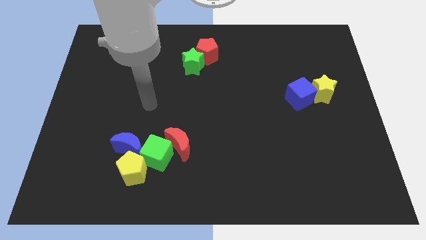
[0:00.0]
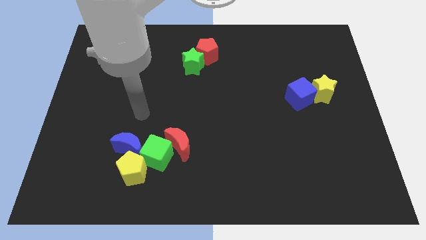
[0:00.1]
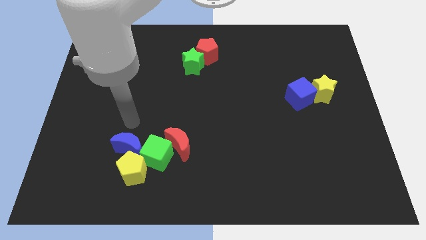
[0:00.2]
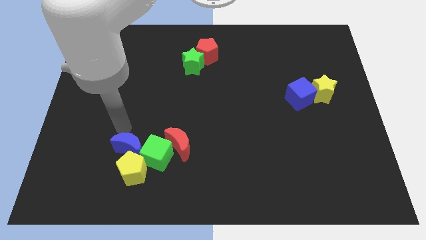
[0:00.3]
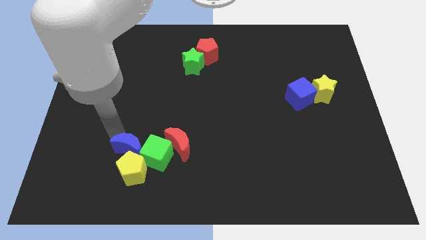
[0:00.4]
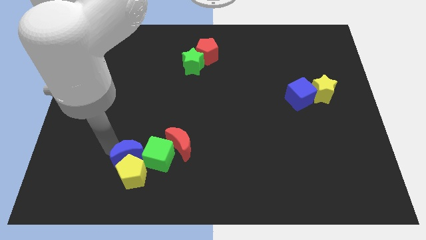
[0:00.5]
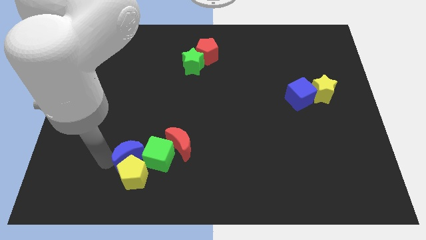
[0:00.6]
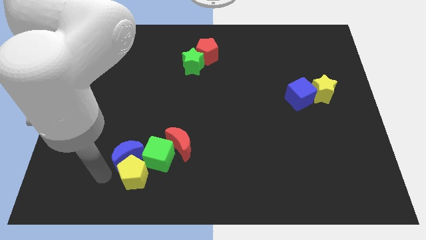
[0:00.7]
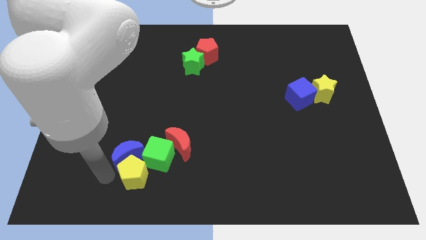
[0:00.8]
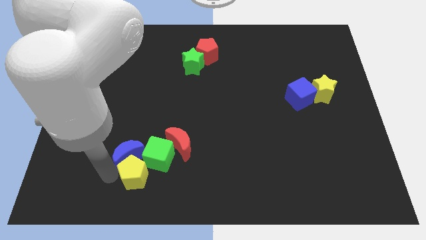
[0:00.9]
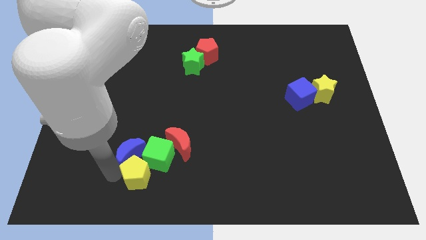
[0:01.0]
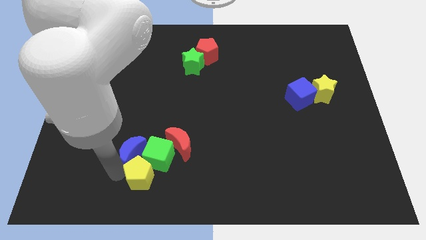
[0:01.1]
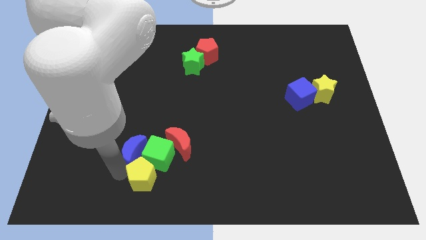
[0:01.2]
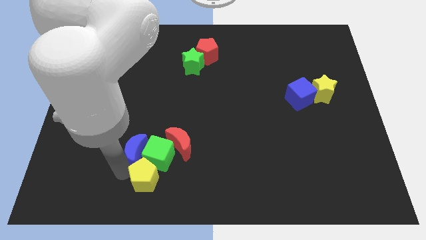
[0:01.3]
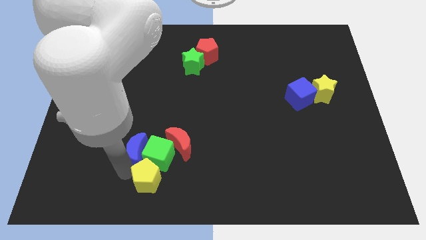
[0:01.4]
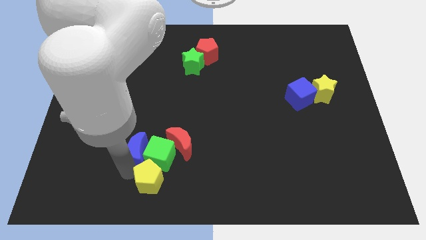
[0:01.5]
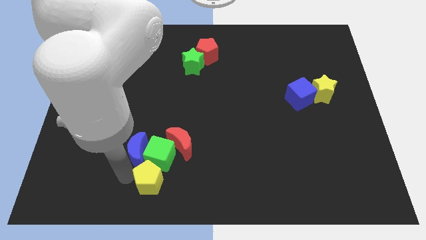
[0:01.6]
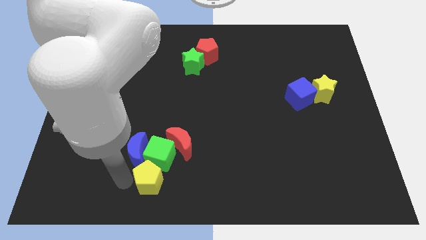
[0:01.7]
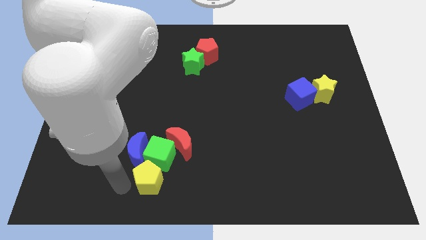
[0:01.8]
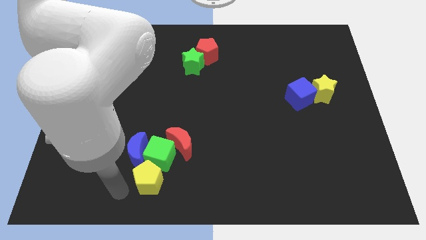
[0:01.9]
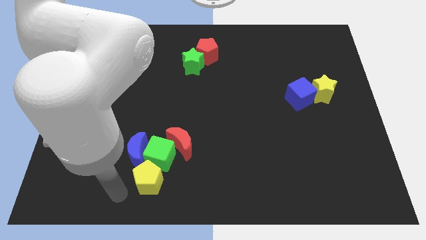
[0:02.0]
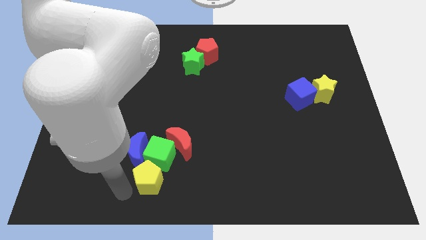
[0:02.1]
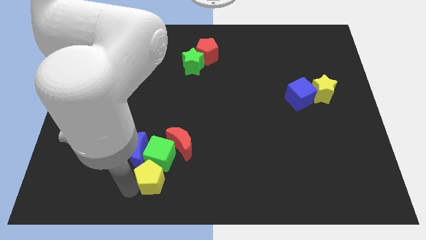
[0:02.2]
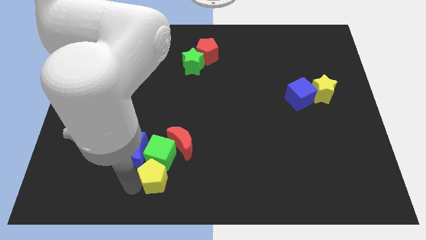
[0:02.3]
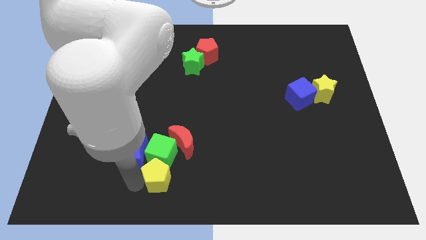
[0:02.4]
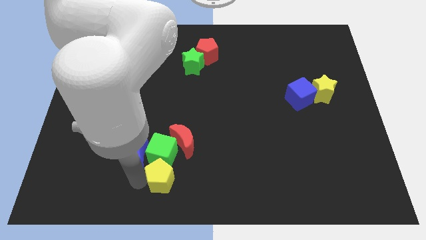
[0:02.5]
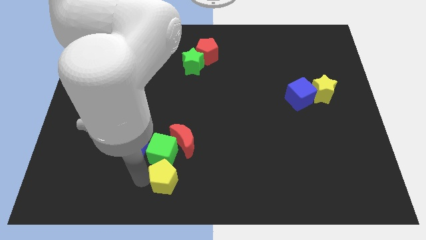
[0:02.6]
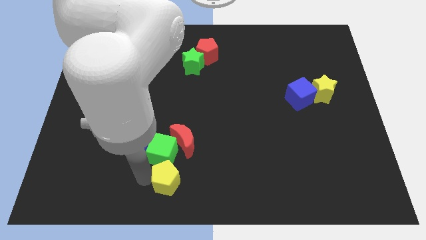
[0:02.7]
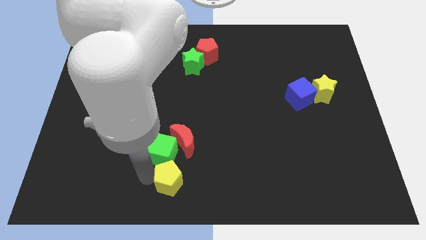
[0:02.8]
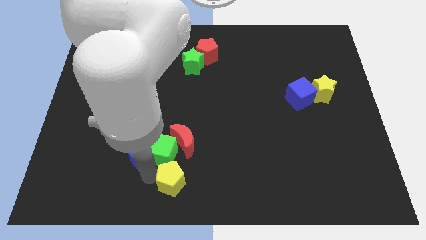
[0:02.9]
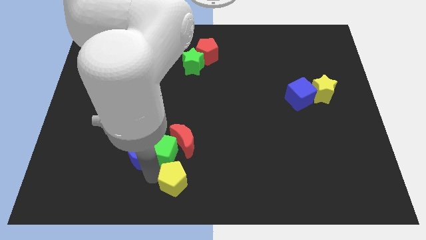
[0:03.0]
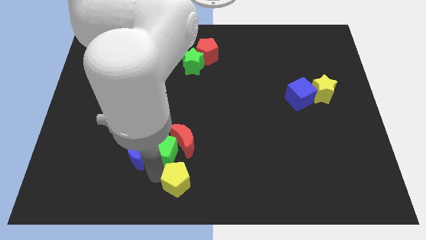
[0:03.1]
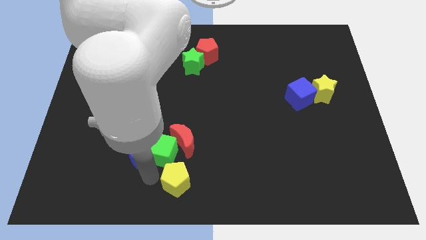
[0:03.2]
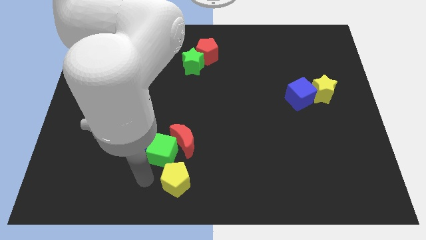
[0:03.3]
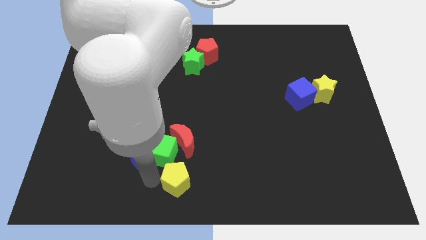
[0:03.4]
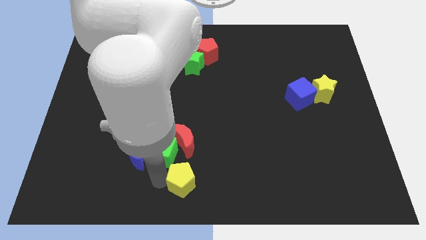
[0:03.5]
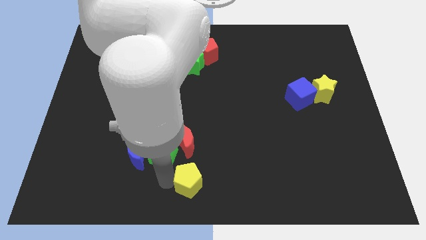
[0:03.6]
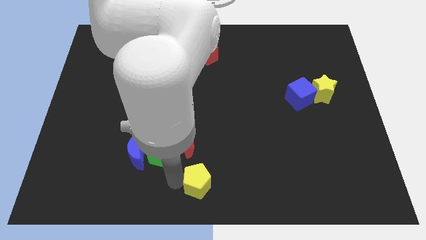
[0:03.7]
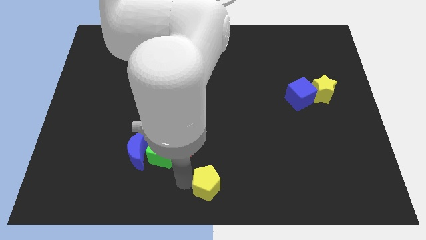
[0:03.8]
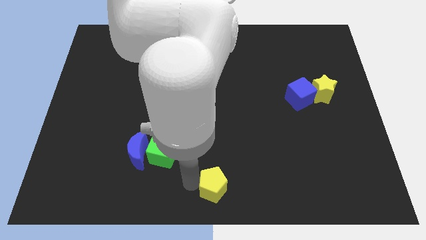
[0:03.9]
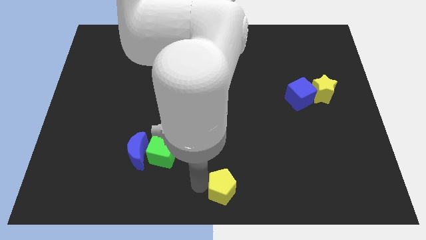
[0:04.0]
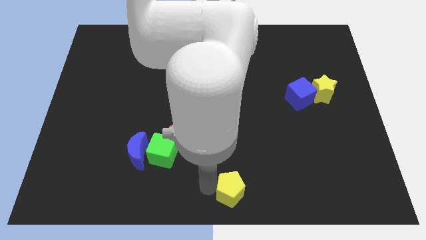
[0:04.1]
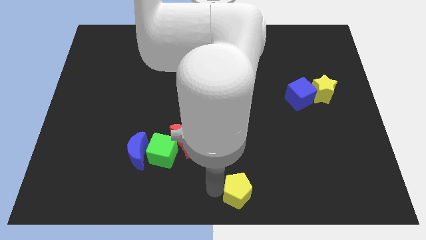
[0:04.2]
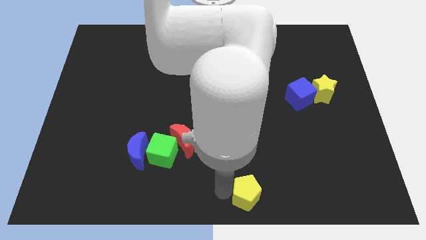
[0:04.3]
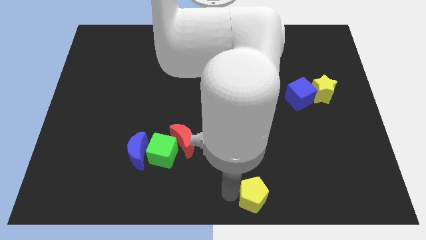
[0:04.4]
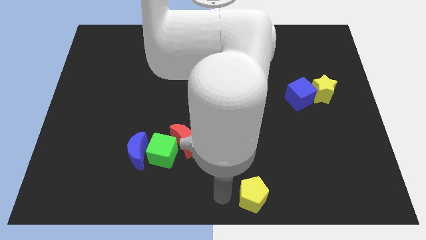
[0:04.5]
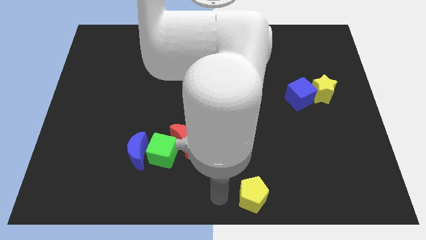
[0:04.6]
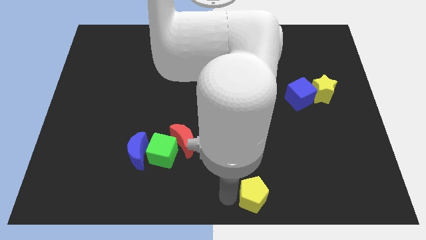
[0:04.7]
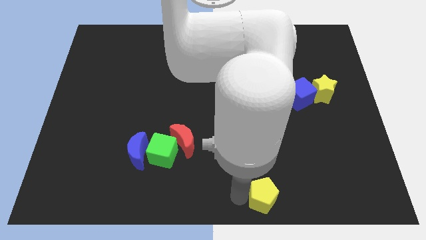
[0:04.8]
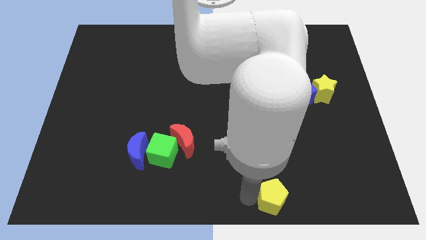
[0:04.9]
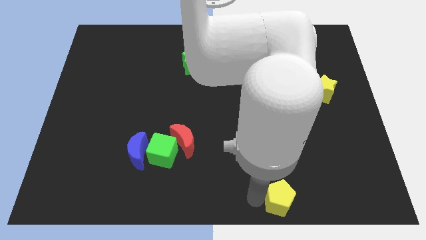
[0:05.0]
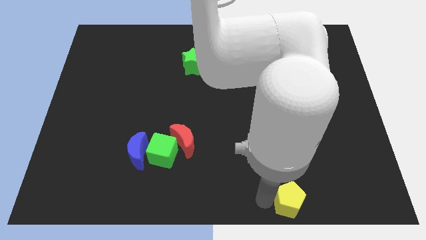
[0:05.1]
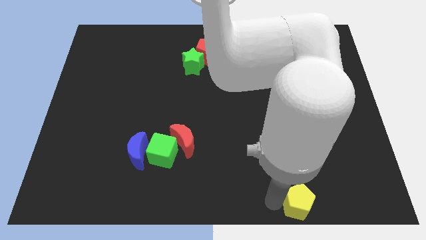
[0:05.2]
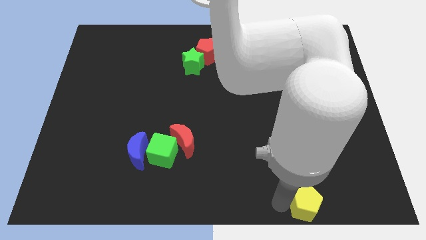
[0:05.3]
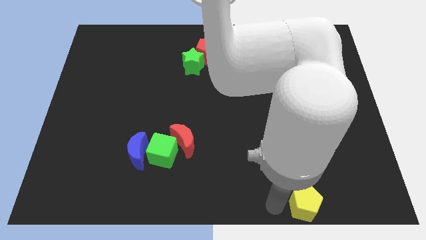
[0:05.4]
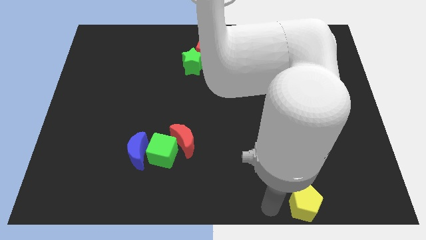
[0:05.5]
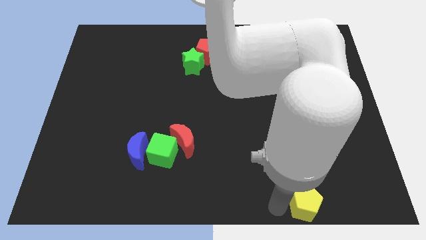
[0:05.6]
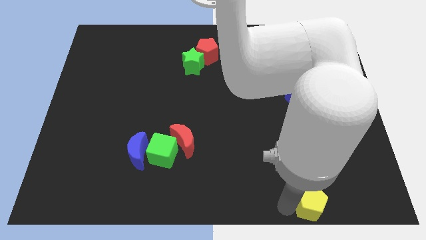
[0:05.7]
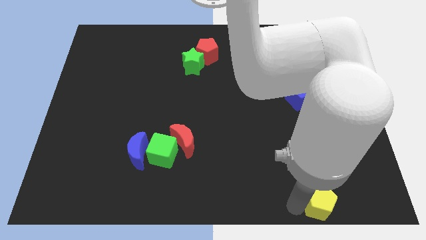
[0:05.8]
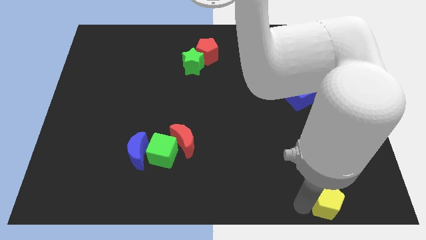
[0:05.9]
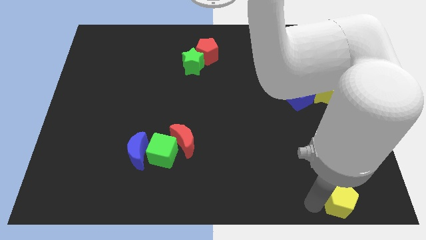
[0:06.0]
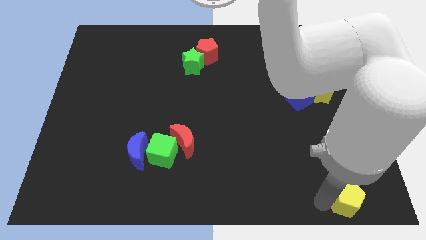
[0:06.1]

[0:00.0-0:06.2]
slide the yellow pentagon to the bottom right corner

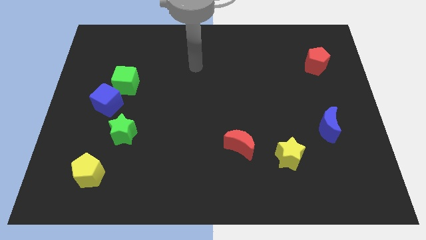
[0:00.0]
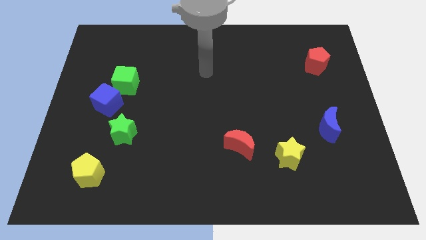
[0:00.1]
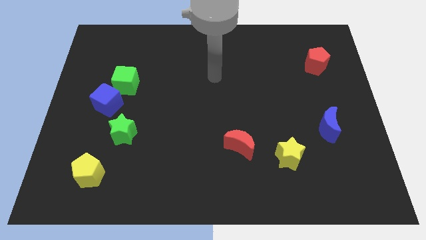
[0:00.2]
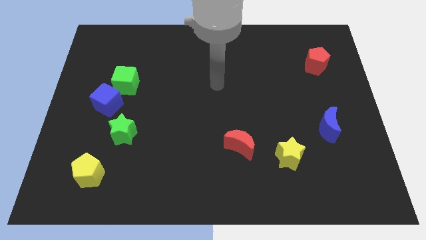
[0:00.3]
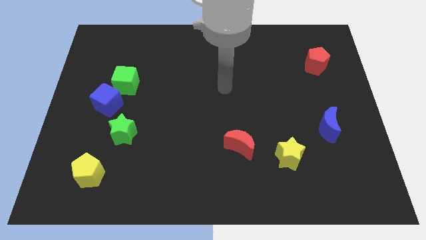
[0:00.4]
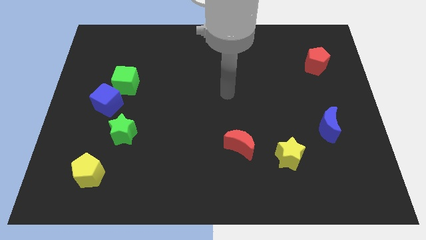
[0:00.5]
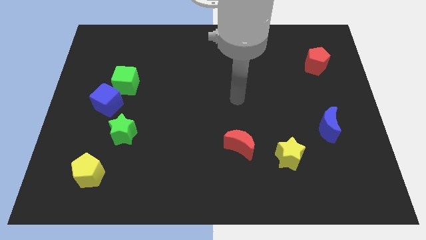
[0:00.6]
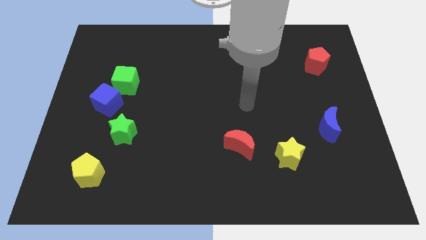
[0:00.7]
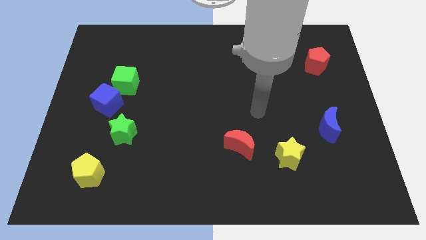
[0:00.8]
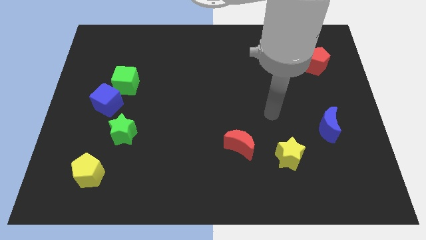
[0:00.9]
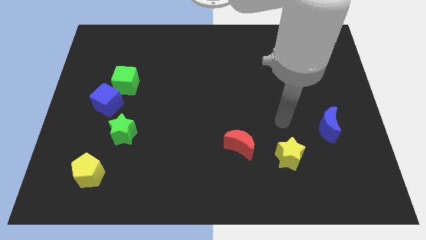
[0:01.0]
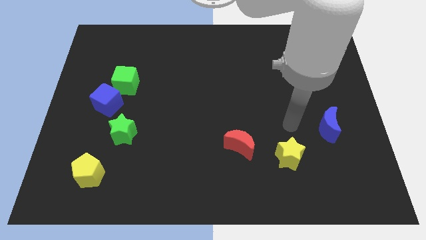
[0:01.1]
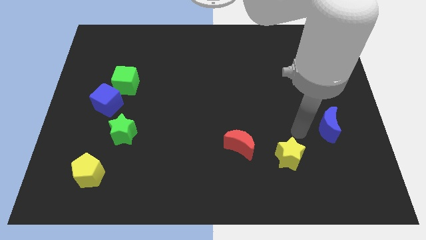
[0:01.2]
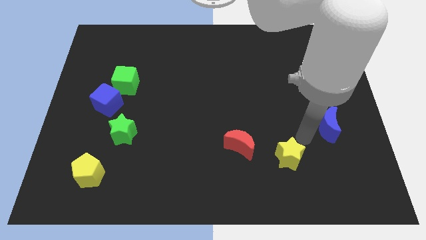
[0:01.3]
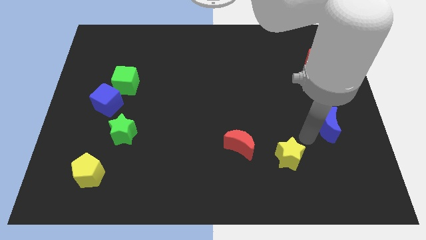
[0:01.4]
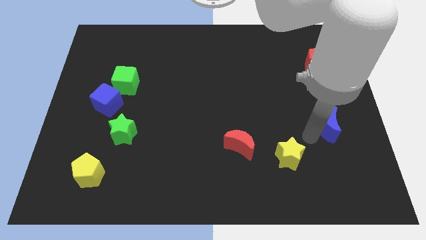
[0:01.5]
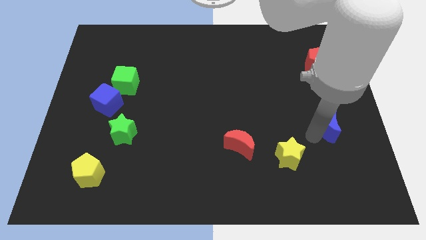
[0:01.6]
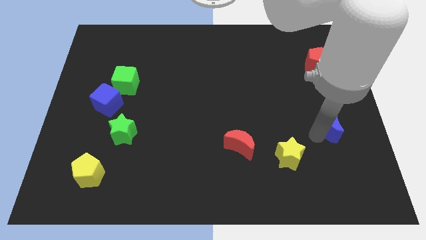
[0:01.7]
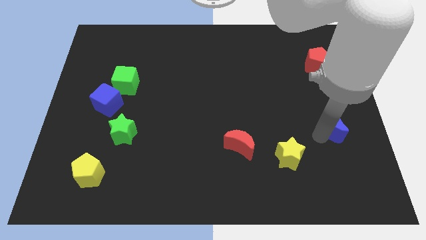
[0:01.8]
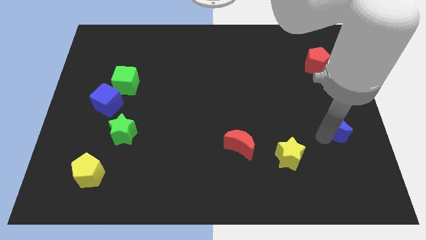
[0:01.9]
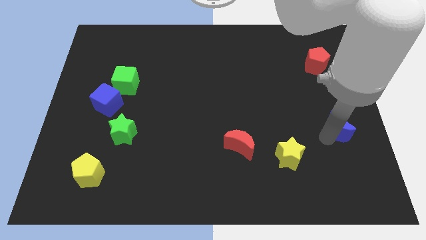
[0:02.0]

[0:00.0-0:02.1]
slide the blue moon to the right side of the board
